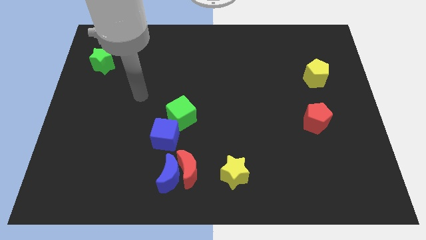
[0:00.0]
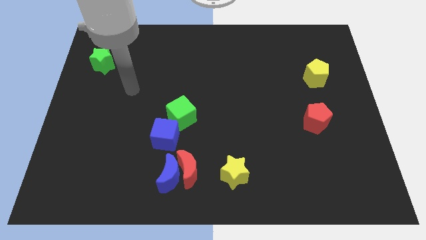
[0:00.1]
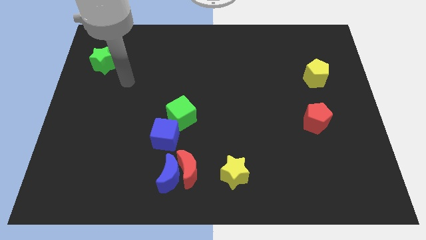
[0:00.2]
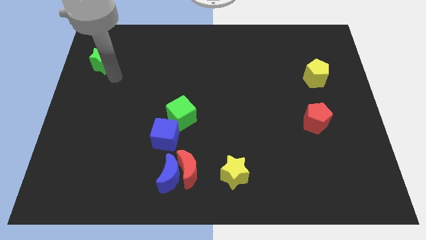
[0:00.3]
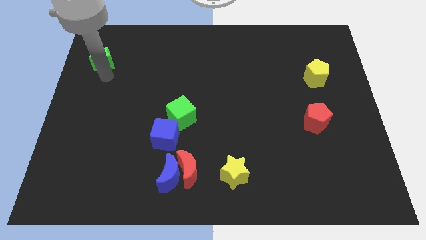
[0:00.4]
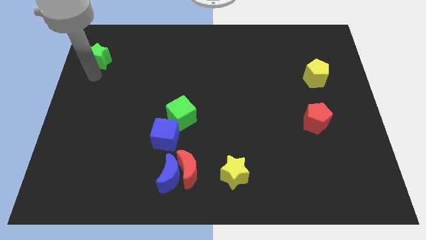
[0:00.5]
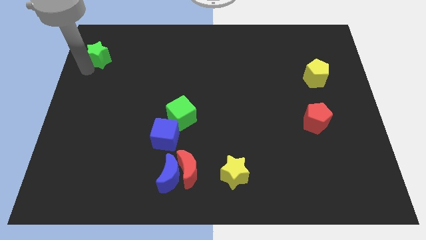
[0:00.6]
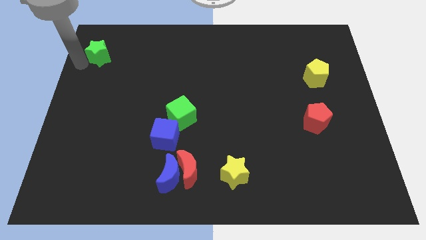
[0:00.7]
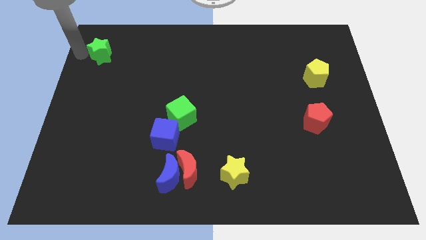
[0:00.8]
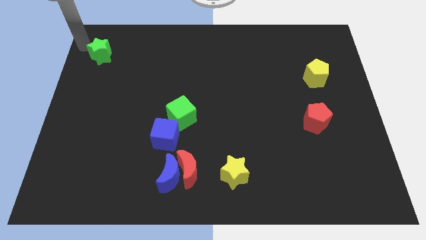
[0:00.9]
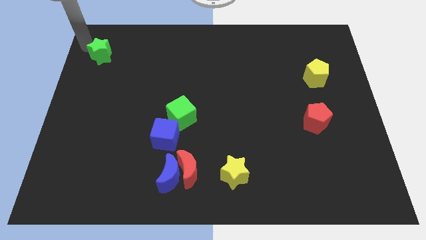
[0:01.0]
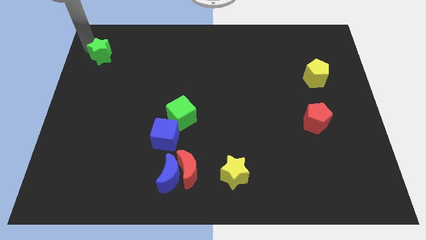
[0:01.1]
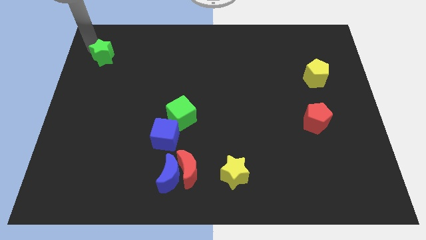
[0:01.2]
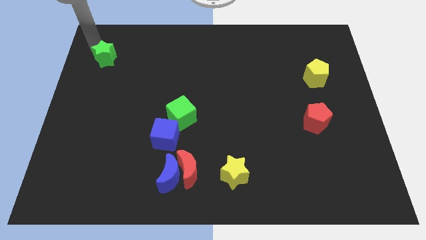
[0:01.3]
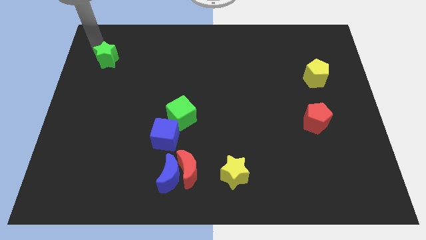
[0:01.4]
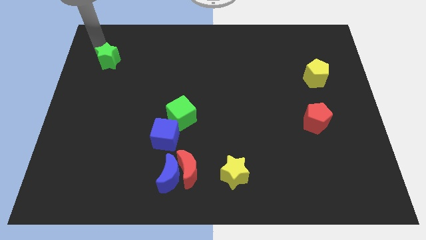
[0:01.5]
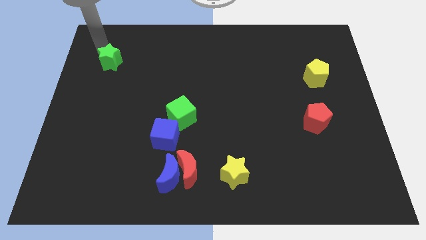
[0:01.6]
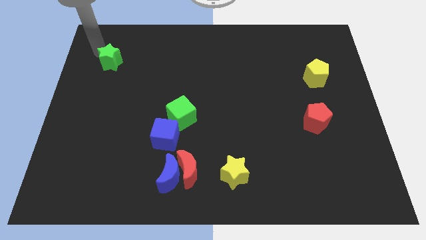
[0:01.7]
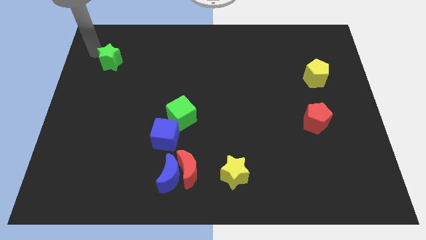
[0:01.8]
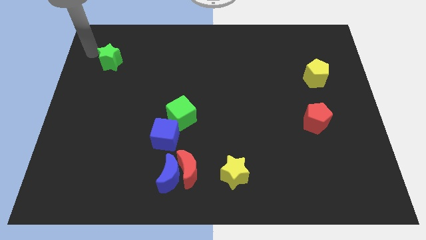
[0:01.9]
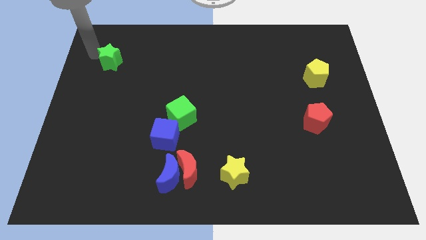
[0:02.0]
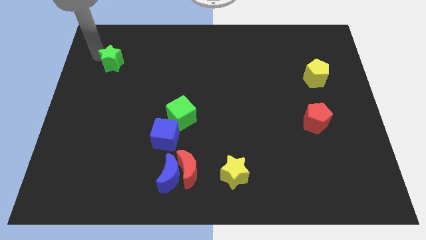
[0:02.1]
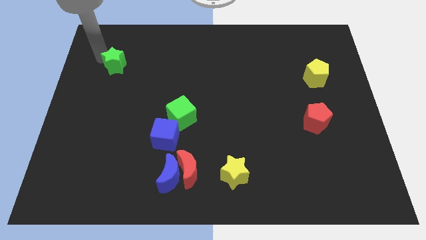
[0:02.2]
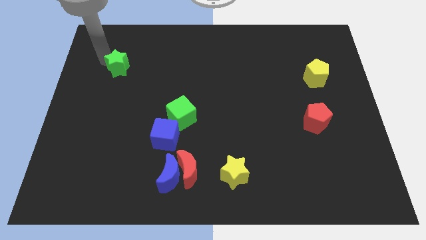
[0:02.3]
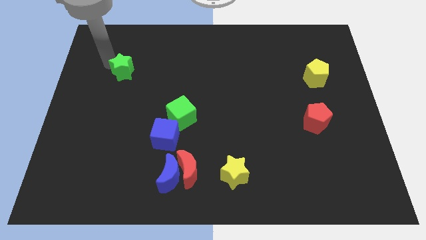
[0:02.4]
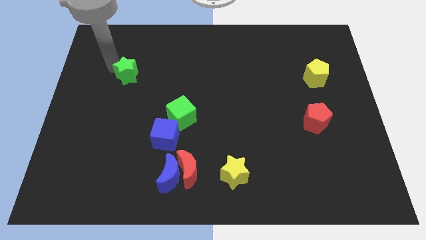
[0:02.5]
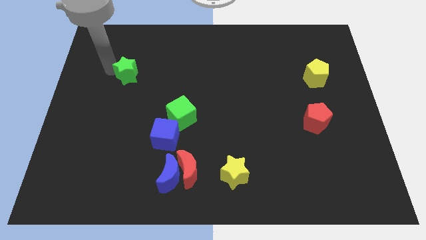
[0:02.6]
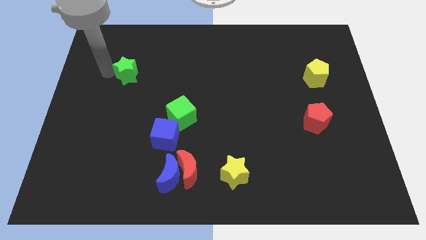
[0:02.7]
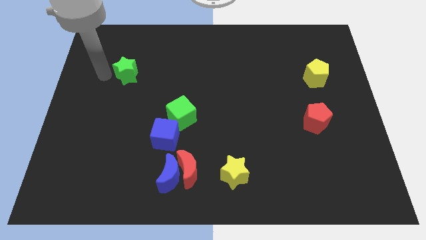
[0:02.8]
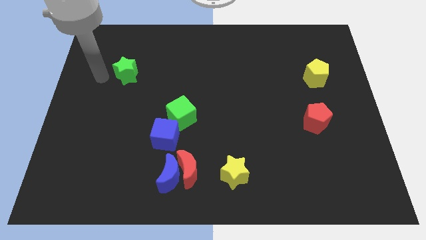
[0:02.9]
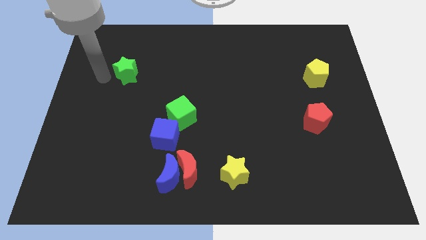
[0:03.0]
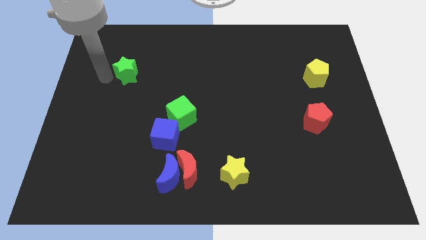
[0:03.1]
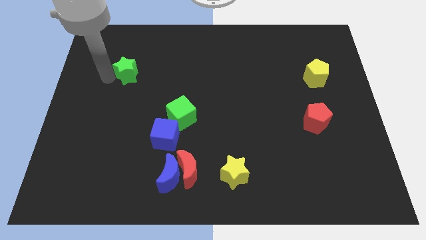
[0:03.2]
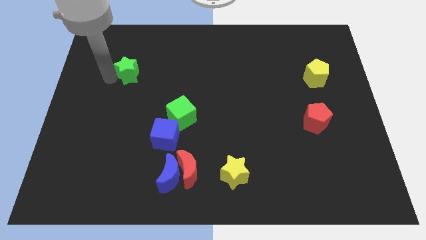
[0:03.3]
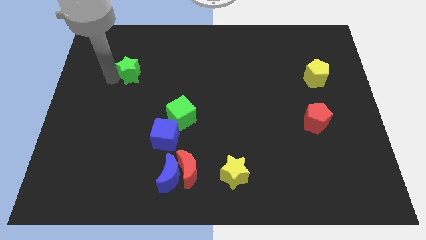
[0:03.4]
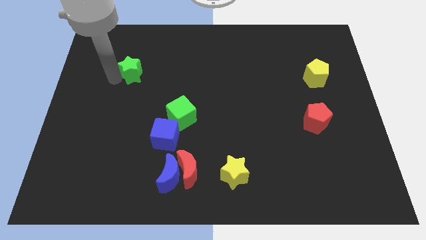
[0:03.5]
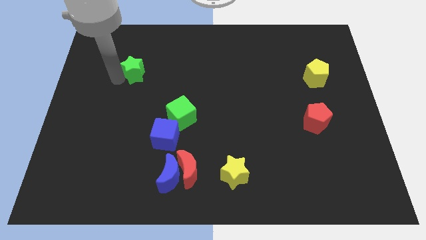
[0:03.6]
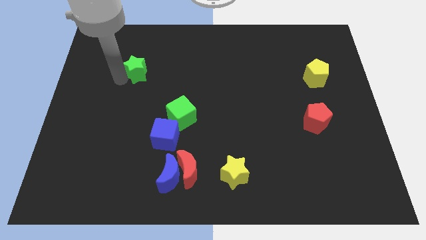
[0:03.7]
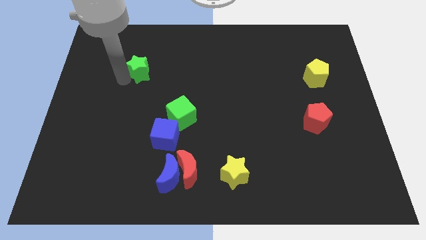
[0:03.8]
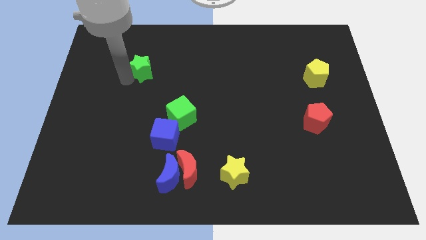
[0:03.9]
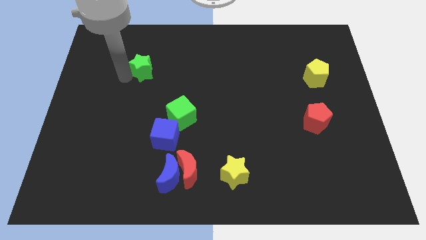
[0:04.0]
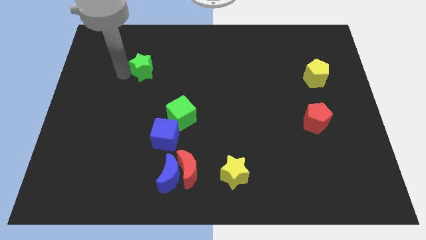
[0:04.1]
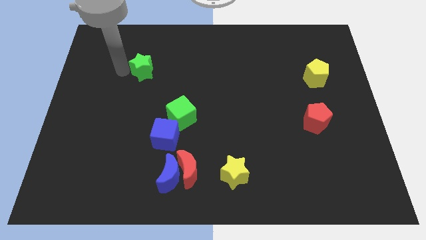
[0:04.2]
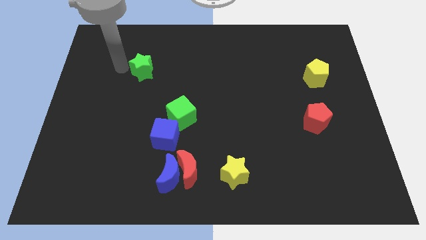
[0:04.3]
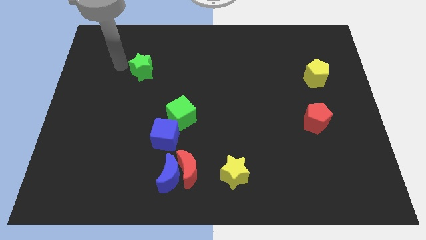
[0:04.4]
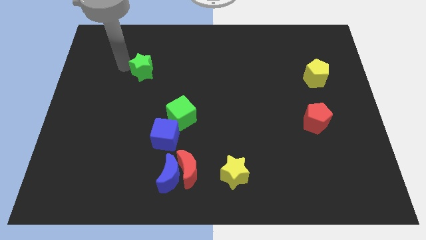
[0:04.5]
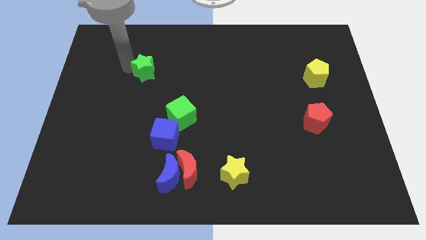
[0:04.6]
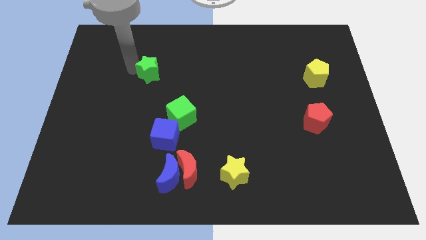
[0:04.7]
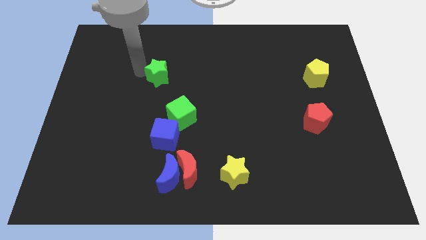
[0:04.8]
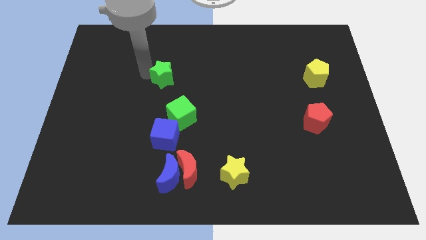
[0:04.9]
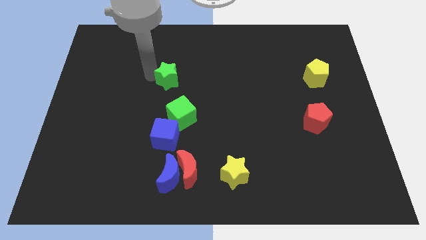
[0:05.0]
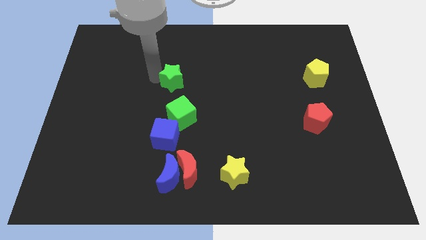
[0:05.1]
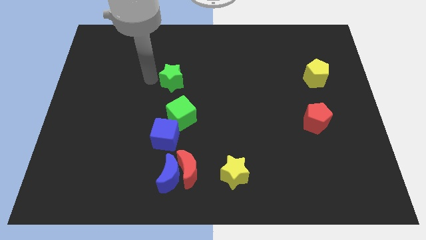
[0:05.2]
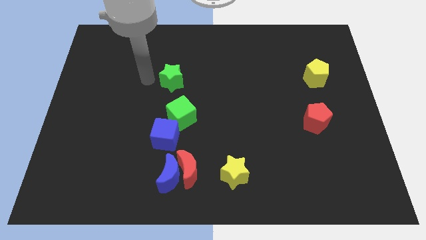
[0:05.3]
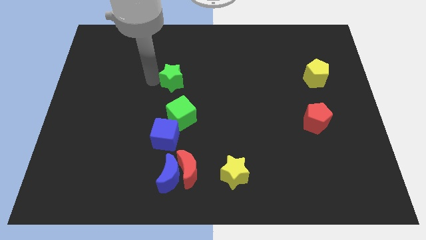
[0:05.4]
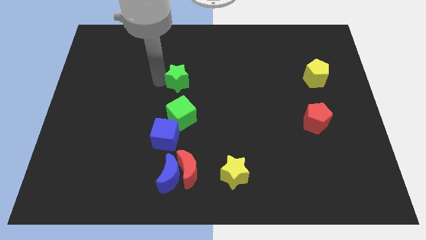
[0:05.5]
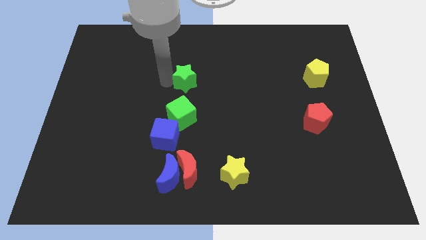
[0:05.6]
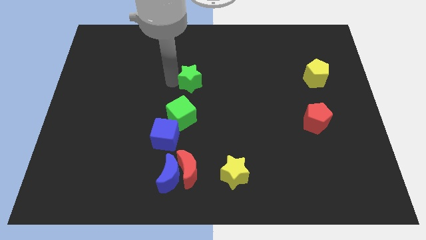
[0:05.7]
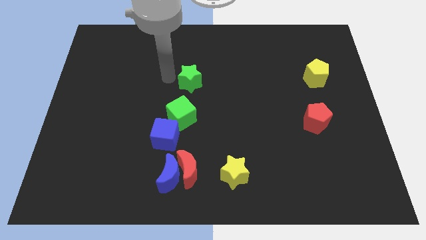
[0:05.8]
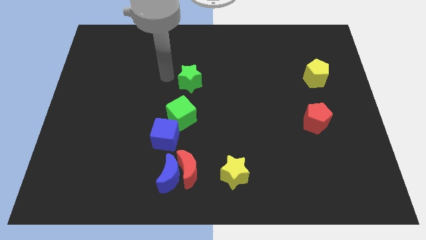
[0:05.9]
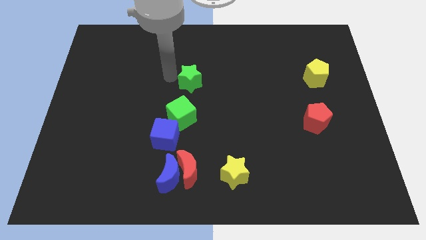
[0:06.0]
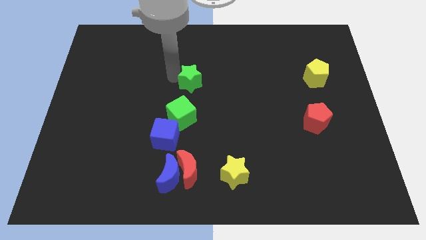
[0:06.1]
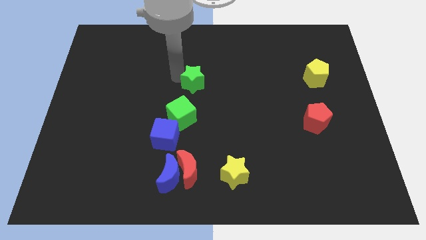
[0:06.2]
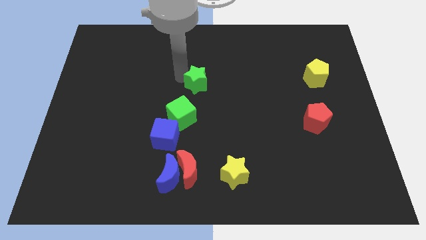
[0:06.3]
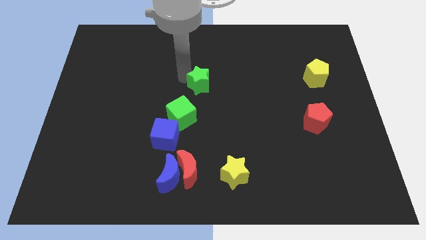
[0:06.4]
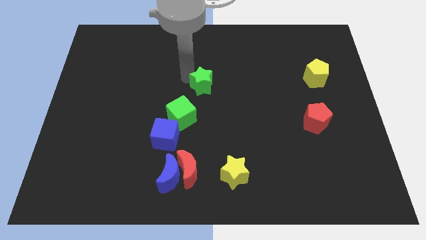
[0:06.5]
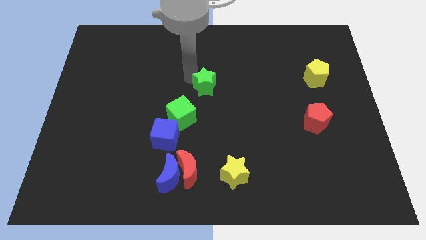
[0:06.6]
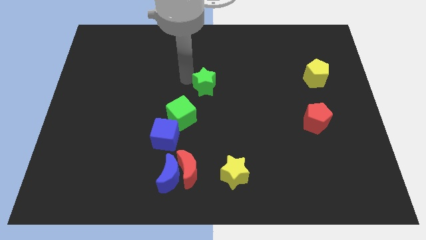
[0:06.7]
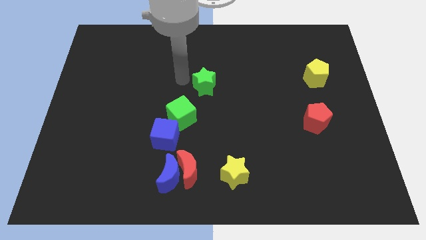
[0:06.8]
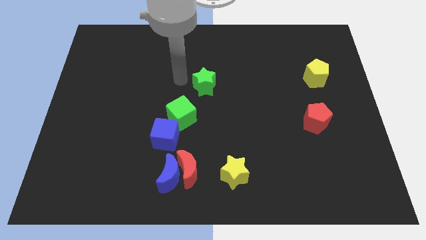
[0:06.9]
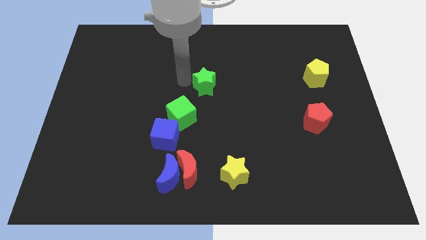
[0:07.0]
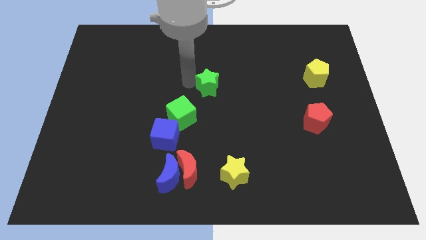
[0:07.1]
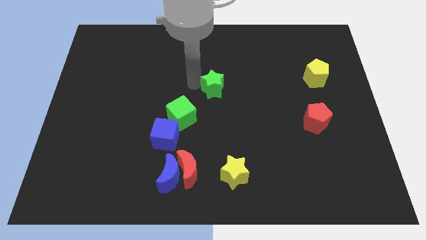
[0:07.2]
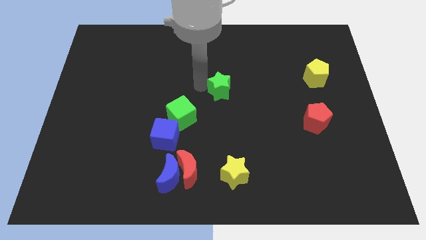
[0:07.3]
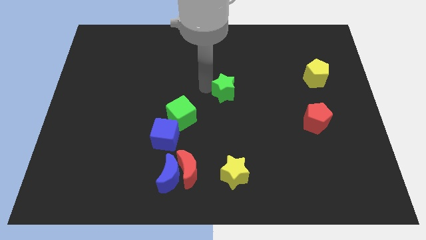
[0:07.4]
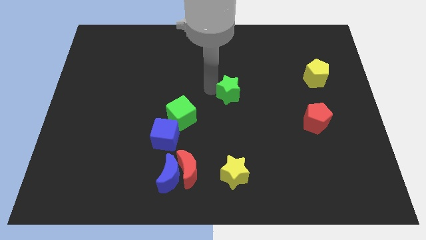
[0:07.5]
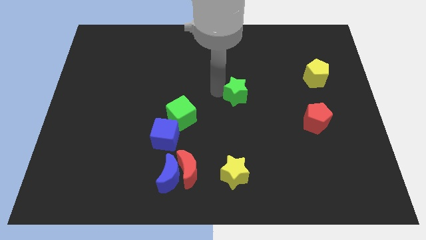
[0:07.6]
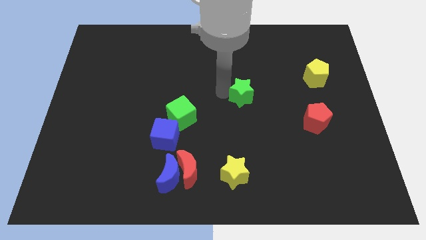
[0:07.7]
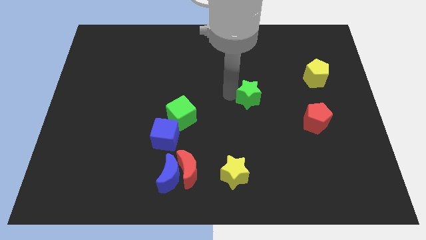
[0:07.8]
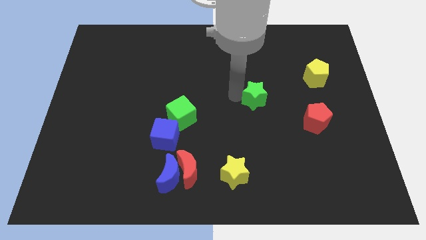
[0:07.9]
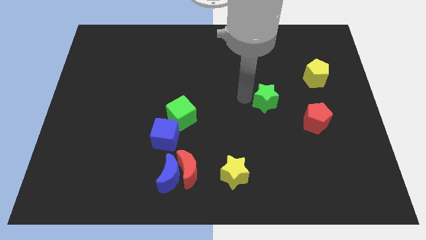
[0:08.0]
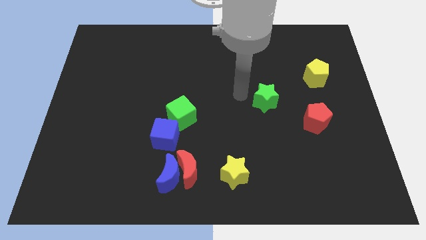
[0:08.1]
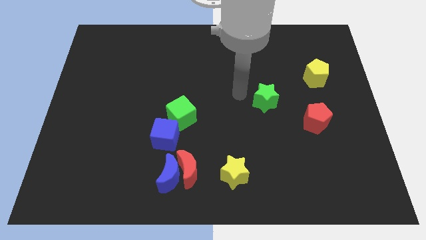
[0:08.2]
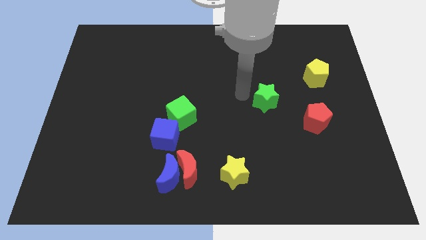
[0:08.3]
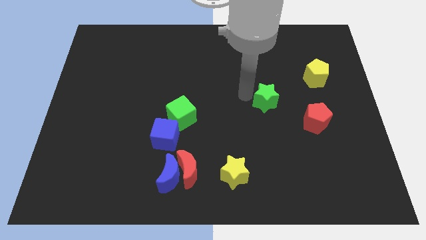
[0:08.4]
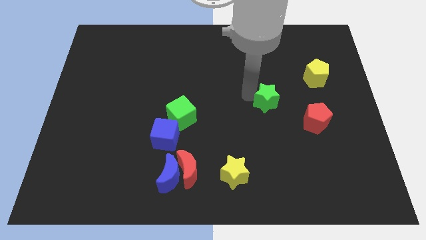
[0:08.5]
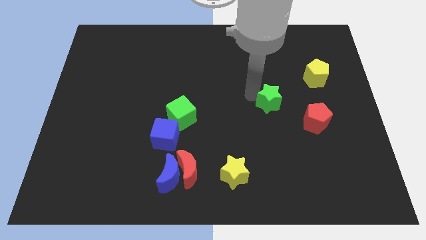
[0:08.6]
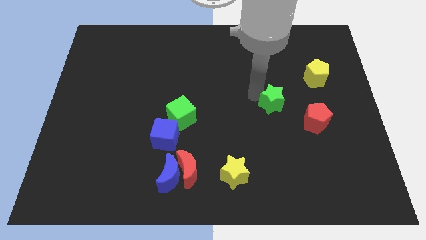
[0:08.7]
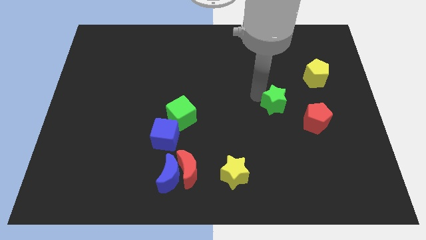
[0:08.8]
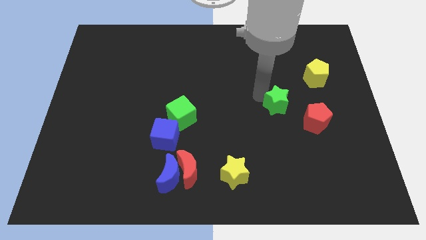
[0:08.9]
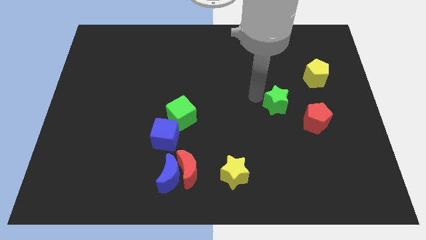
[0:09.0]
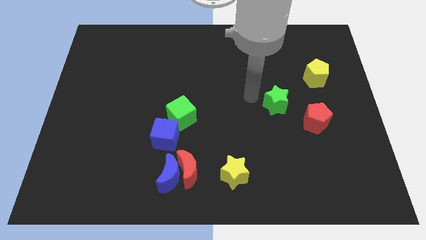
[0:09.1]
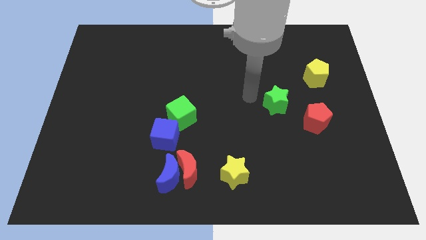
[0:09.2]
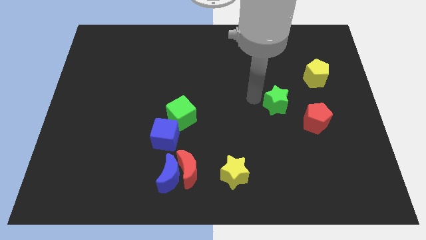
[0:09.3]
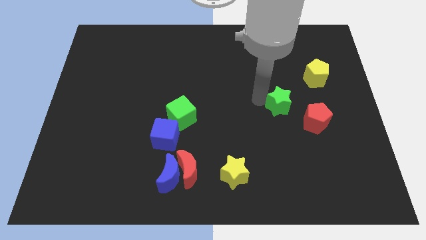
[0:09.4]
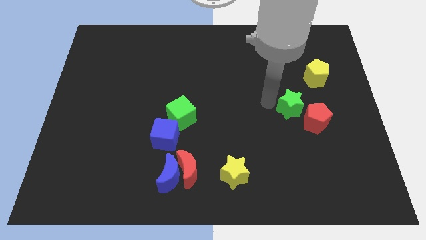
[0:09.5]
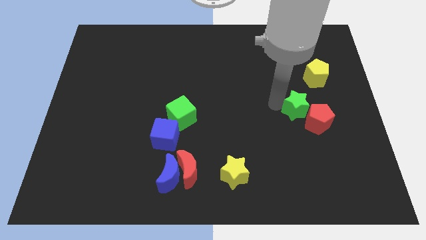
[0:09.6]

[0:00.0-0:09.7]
slide the green star next to the red pentagon
